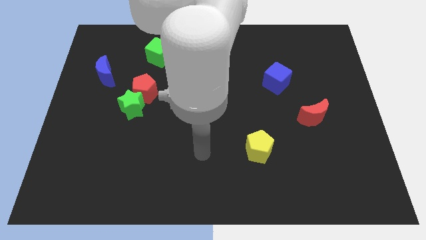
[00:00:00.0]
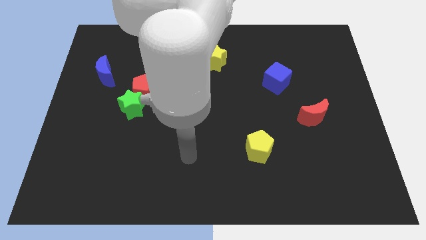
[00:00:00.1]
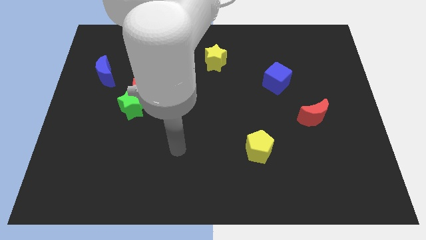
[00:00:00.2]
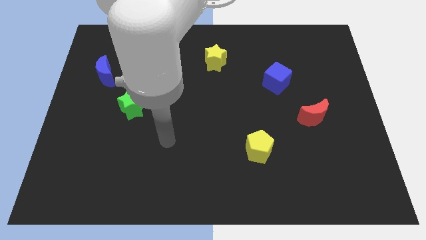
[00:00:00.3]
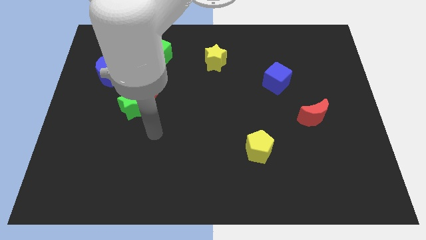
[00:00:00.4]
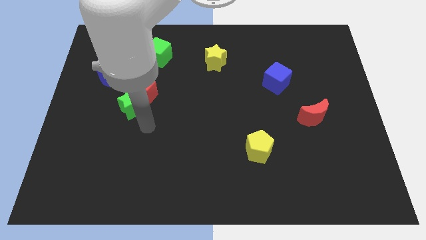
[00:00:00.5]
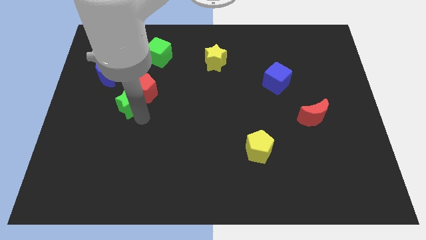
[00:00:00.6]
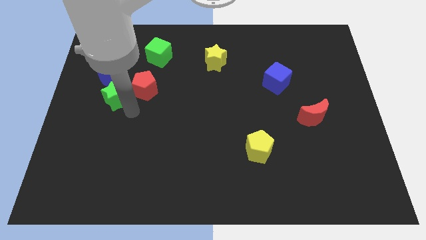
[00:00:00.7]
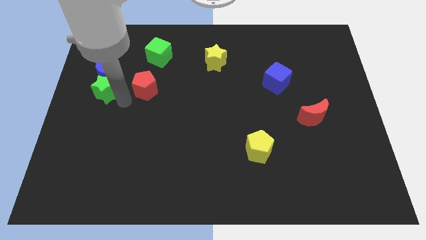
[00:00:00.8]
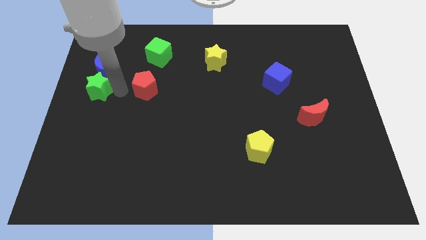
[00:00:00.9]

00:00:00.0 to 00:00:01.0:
pull the red pentagon apart from the green star

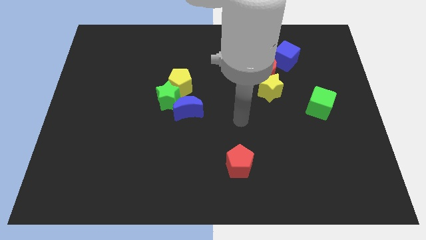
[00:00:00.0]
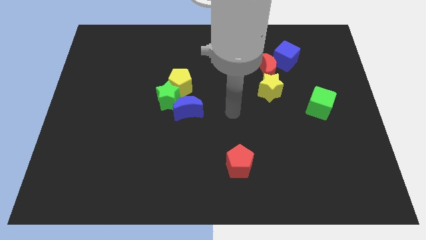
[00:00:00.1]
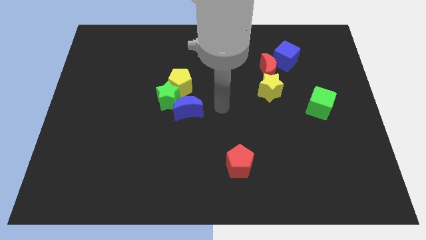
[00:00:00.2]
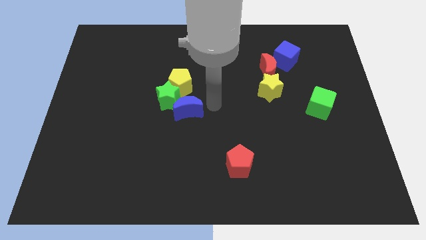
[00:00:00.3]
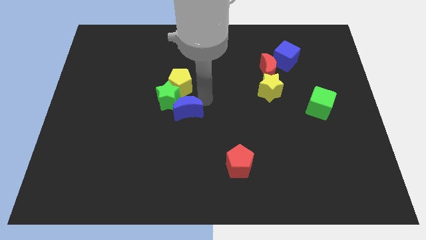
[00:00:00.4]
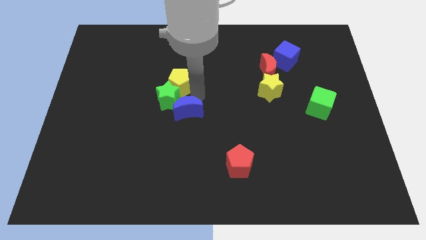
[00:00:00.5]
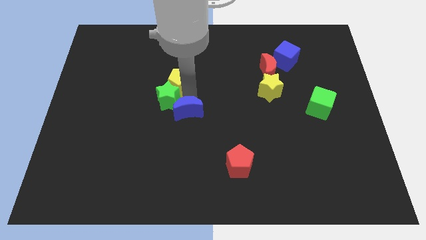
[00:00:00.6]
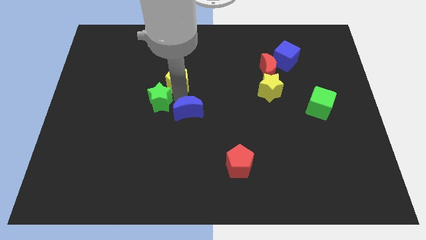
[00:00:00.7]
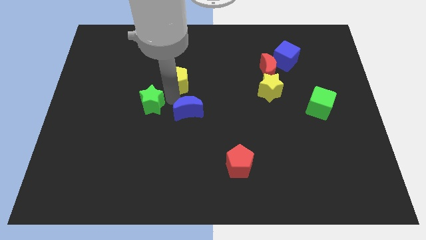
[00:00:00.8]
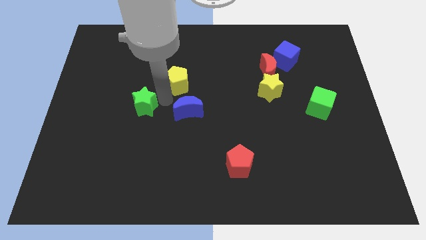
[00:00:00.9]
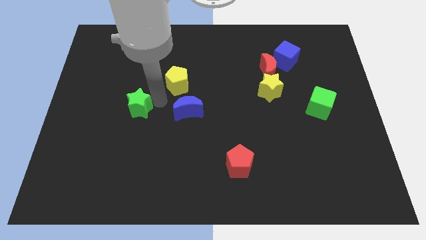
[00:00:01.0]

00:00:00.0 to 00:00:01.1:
move the green star away from the yellow pentagon and blue moon

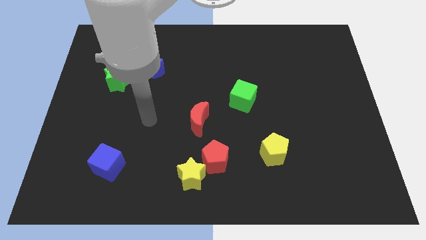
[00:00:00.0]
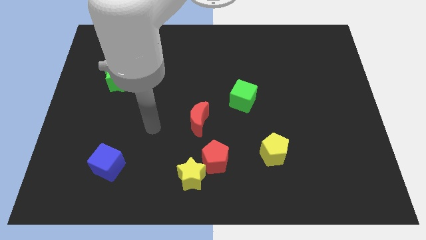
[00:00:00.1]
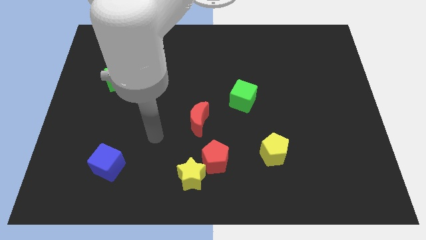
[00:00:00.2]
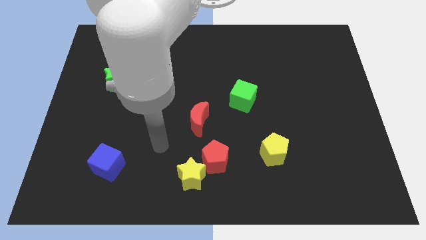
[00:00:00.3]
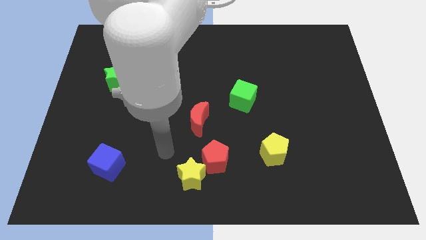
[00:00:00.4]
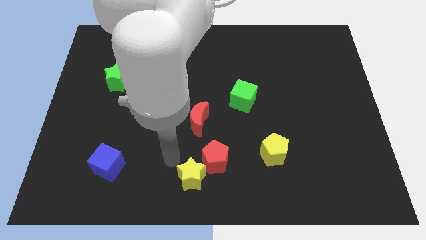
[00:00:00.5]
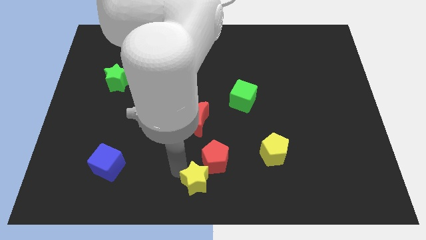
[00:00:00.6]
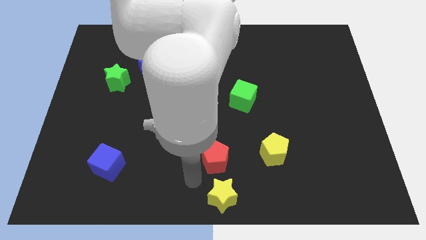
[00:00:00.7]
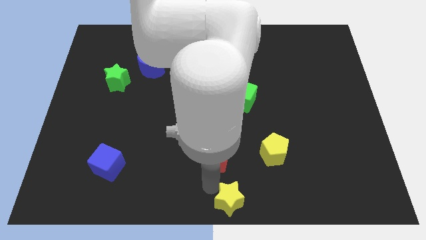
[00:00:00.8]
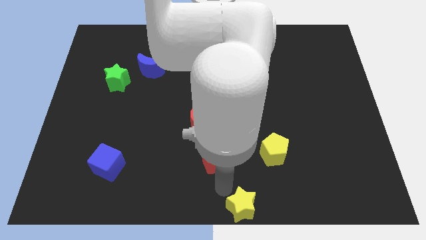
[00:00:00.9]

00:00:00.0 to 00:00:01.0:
pull the red pentagon apart from the yellow star

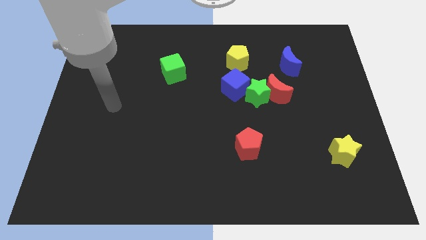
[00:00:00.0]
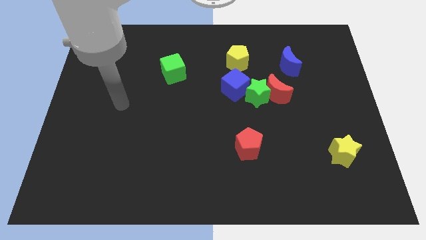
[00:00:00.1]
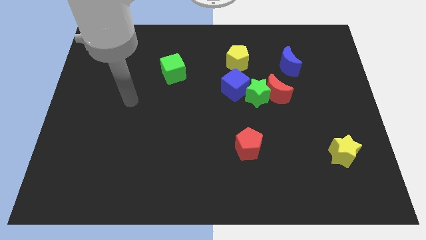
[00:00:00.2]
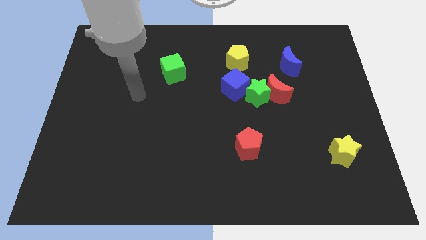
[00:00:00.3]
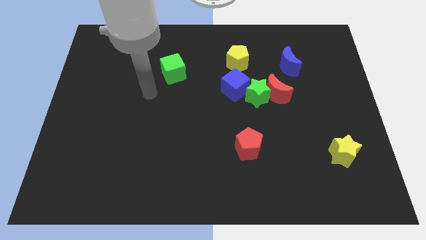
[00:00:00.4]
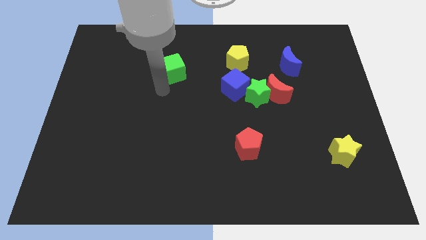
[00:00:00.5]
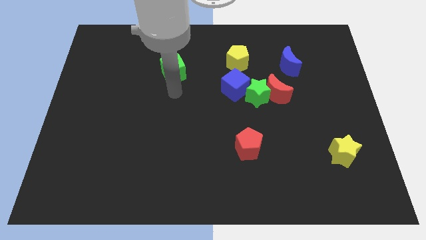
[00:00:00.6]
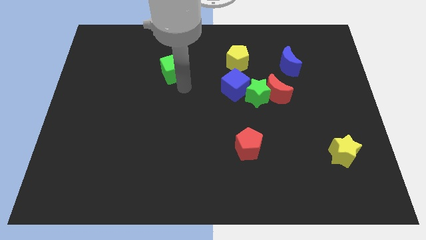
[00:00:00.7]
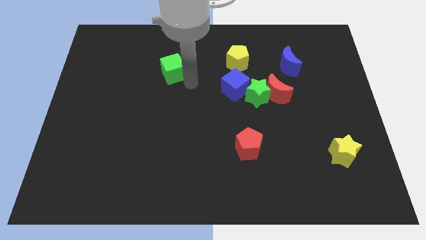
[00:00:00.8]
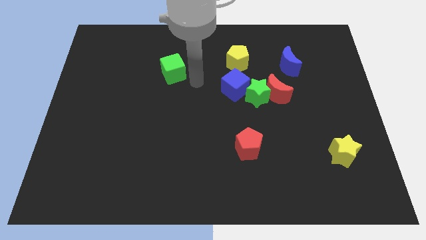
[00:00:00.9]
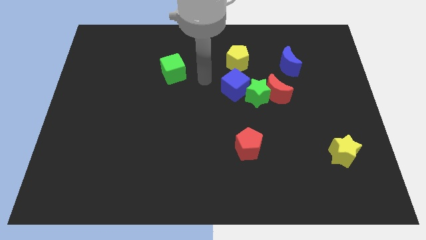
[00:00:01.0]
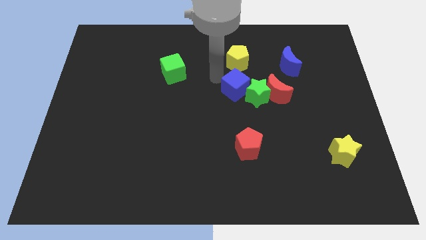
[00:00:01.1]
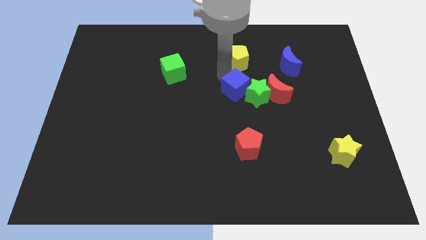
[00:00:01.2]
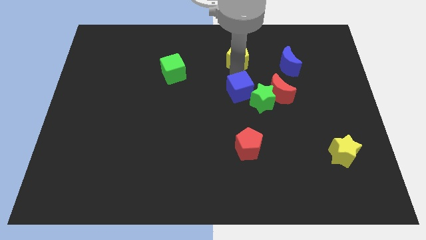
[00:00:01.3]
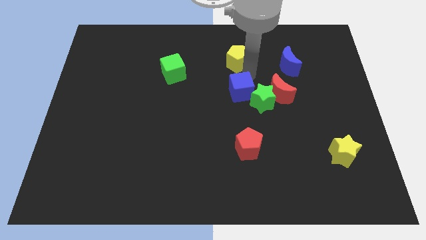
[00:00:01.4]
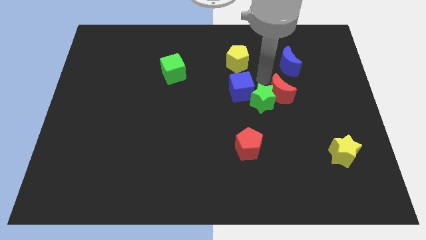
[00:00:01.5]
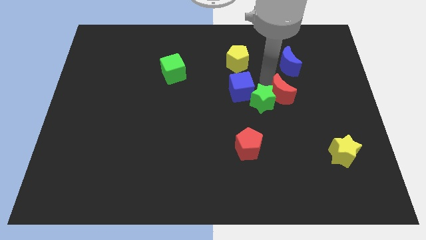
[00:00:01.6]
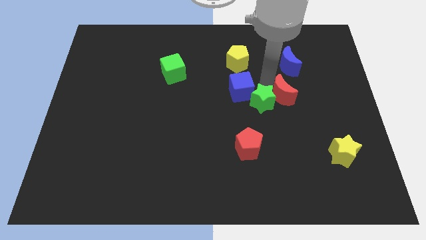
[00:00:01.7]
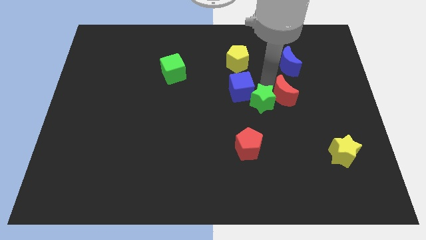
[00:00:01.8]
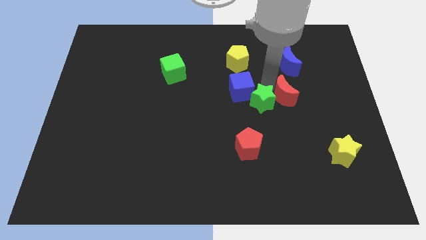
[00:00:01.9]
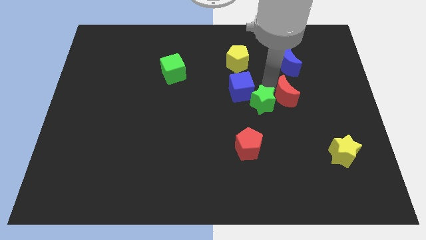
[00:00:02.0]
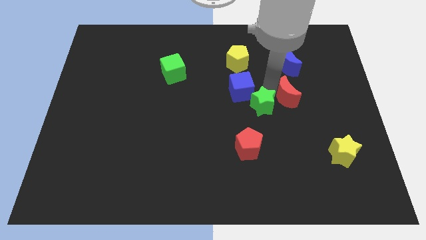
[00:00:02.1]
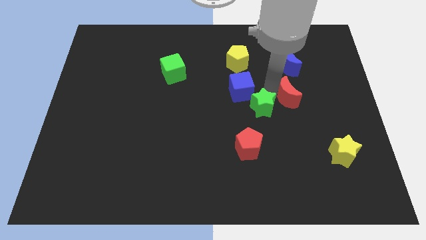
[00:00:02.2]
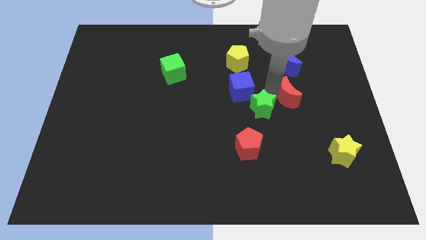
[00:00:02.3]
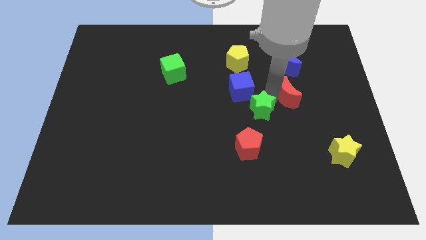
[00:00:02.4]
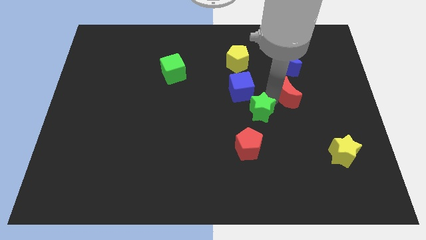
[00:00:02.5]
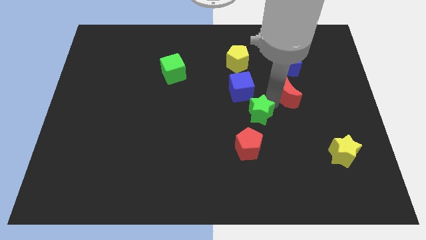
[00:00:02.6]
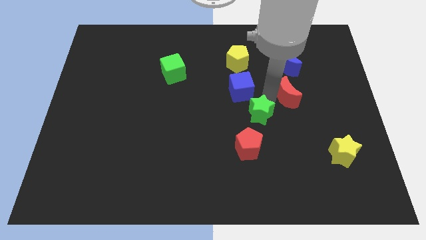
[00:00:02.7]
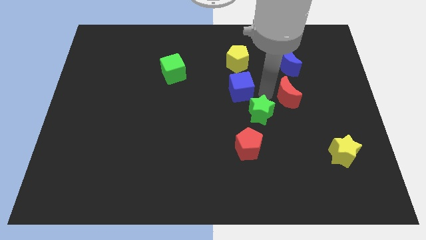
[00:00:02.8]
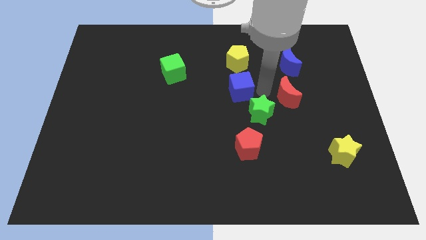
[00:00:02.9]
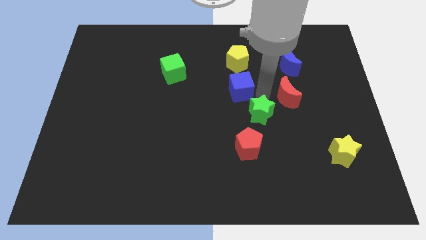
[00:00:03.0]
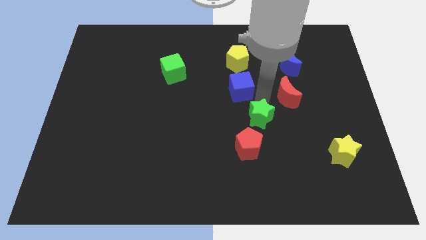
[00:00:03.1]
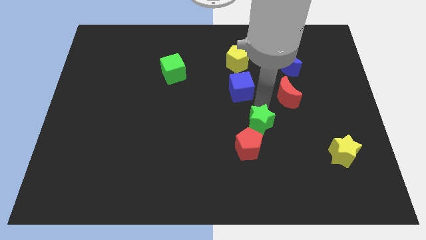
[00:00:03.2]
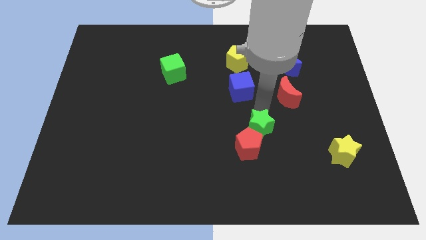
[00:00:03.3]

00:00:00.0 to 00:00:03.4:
separate the green star from the red moon and blue cube

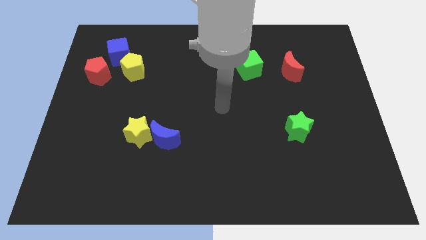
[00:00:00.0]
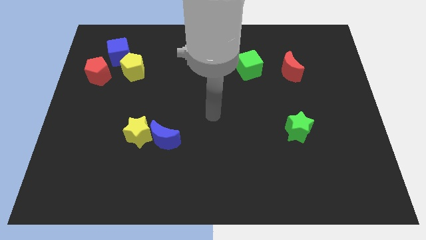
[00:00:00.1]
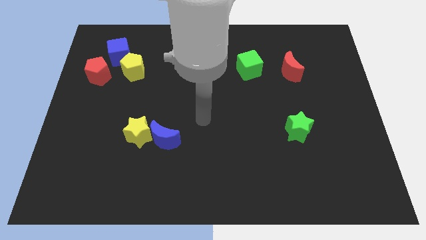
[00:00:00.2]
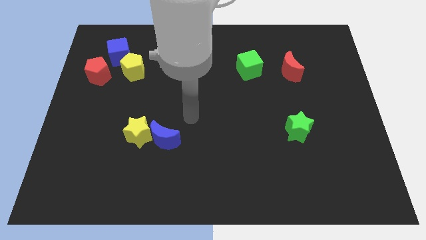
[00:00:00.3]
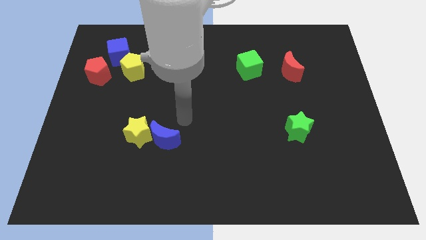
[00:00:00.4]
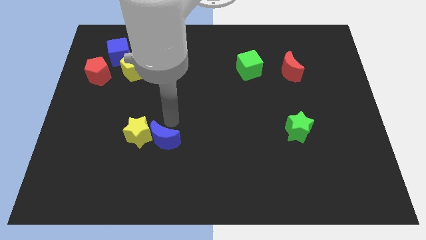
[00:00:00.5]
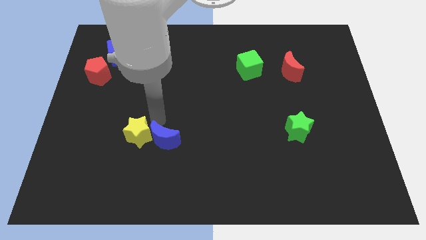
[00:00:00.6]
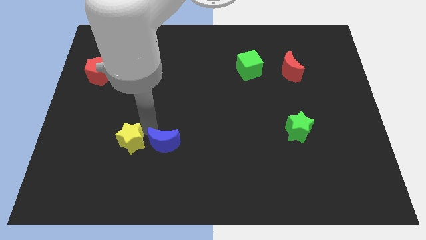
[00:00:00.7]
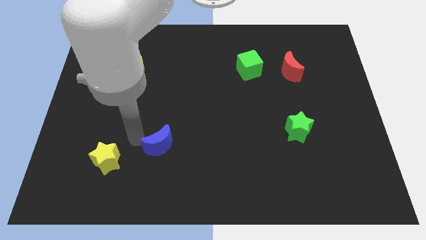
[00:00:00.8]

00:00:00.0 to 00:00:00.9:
separate the blue moon from the yellow star

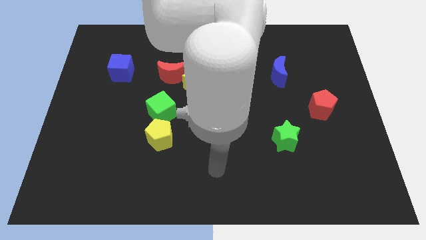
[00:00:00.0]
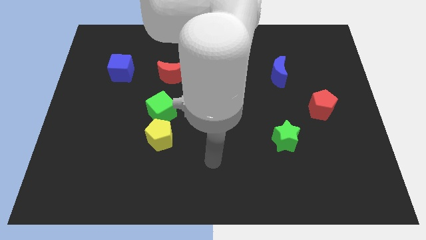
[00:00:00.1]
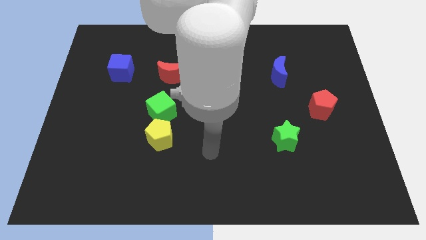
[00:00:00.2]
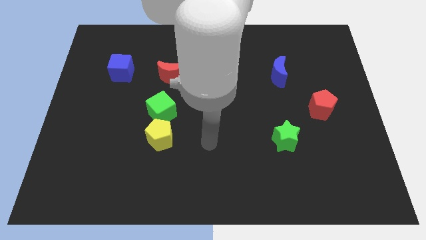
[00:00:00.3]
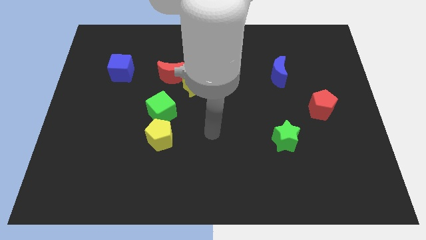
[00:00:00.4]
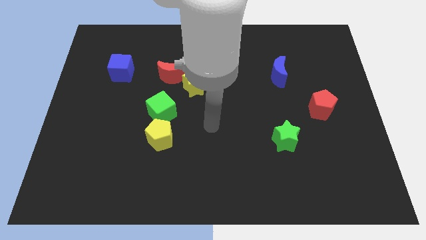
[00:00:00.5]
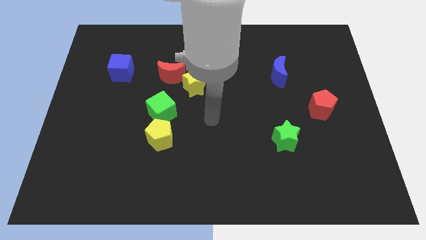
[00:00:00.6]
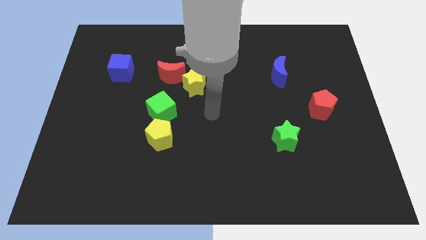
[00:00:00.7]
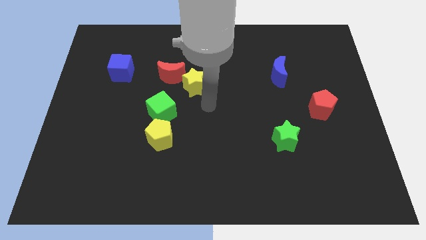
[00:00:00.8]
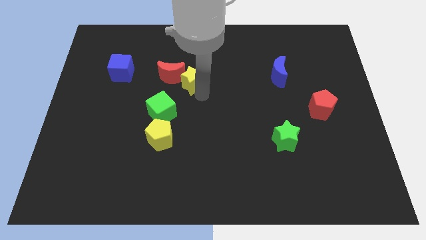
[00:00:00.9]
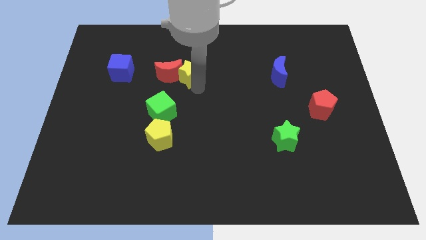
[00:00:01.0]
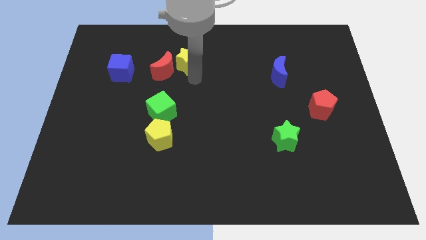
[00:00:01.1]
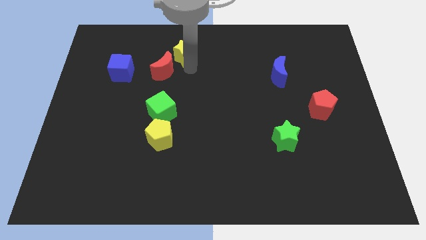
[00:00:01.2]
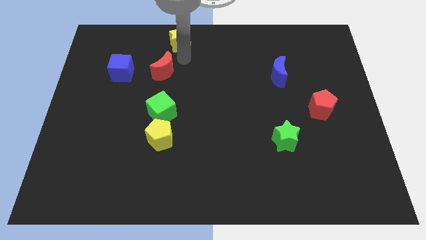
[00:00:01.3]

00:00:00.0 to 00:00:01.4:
pull the red moon apart from the yellow star

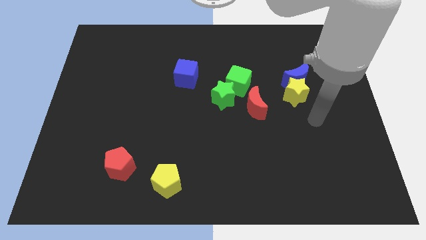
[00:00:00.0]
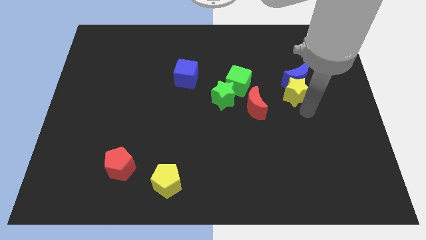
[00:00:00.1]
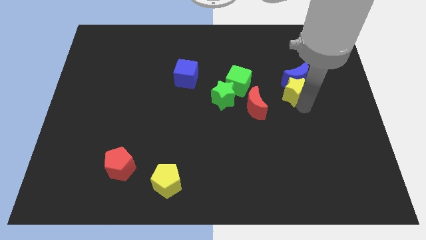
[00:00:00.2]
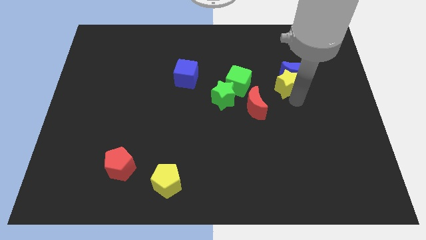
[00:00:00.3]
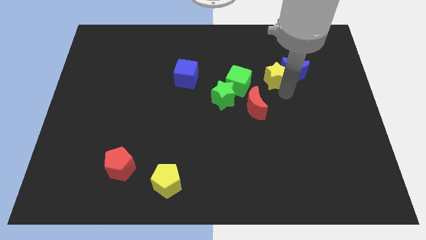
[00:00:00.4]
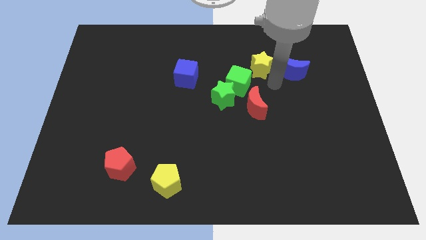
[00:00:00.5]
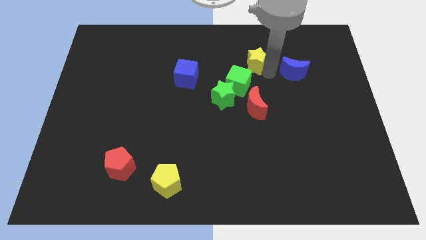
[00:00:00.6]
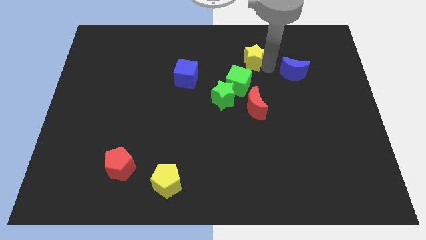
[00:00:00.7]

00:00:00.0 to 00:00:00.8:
move the blue moon away from the yellow star
